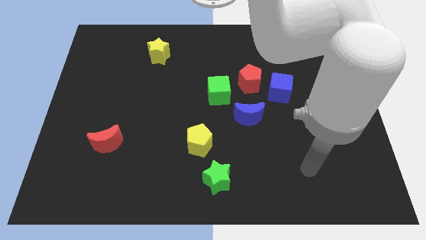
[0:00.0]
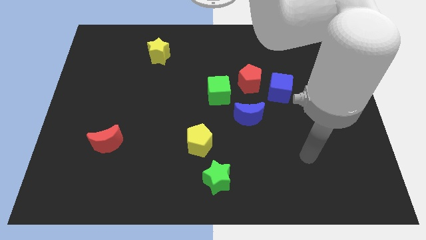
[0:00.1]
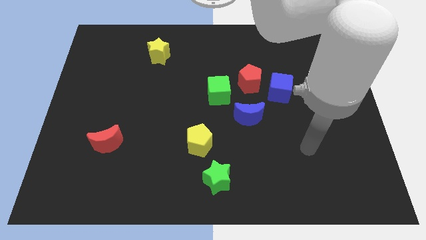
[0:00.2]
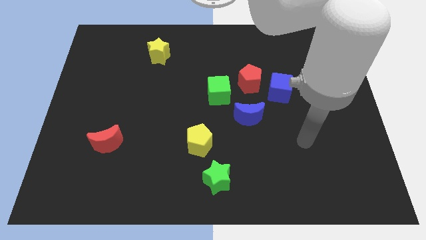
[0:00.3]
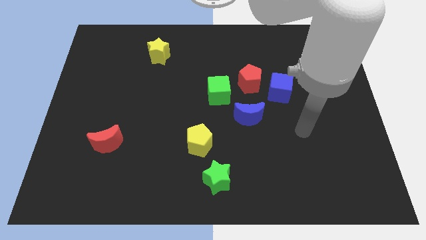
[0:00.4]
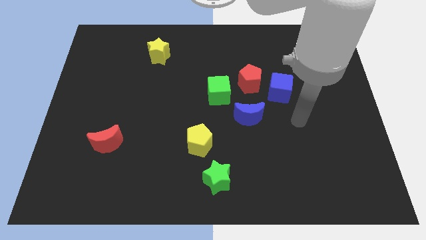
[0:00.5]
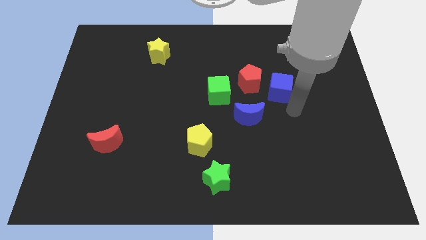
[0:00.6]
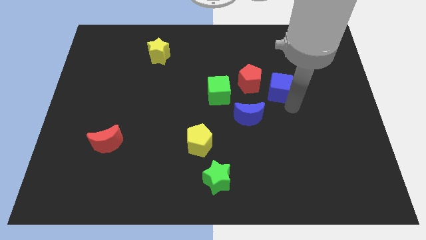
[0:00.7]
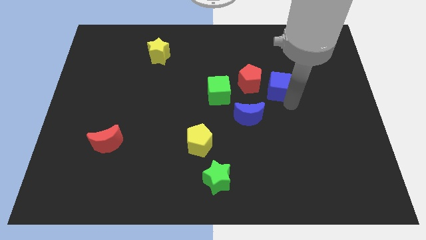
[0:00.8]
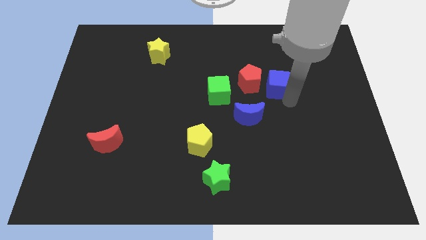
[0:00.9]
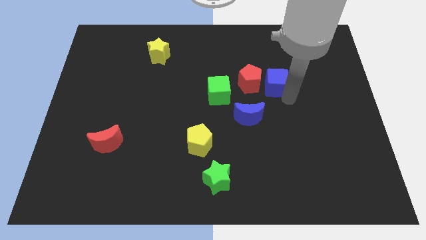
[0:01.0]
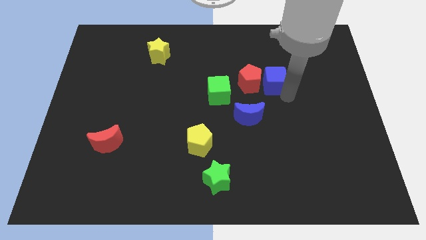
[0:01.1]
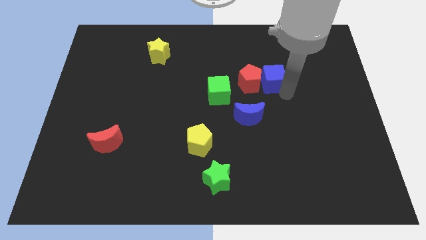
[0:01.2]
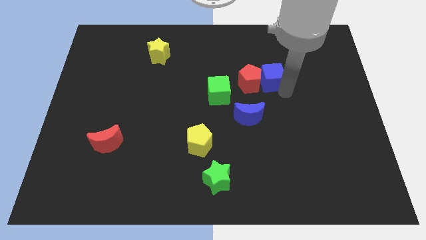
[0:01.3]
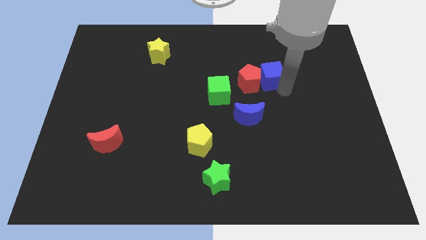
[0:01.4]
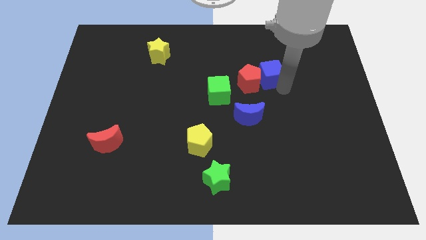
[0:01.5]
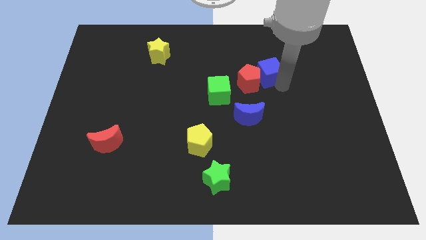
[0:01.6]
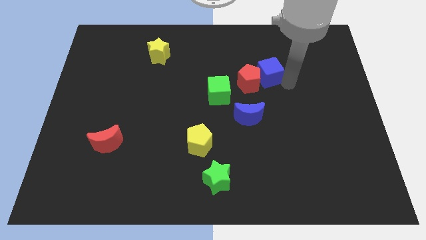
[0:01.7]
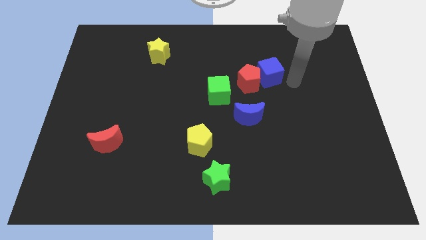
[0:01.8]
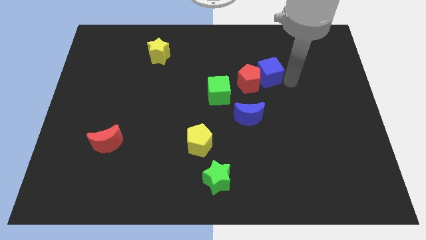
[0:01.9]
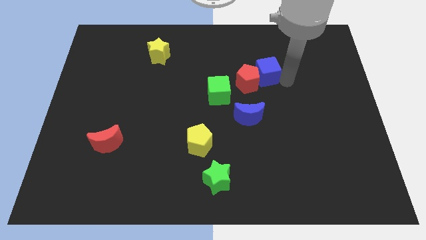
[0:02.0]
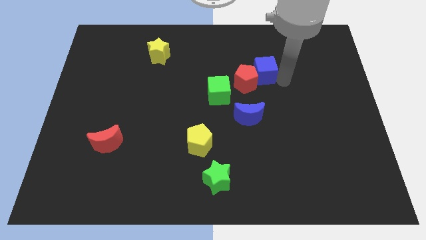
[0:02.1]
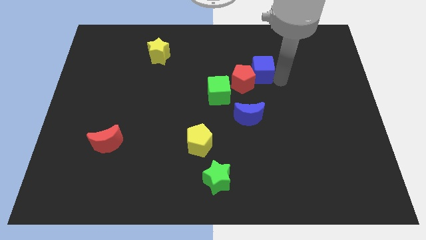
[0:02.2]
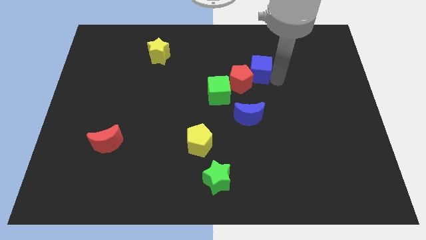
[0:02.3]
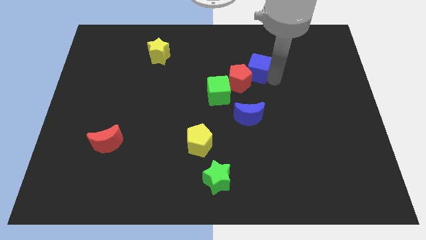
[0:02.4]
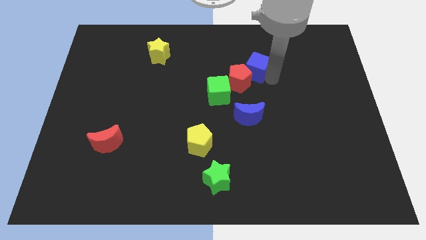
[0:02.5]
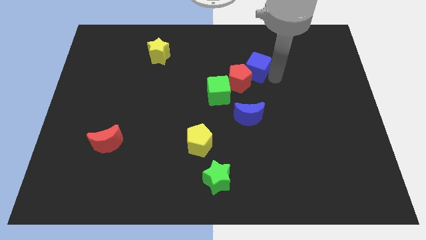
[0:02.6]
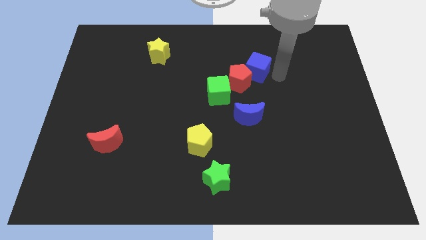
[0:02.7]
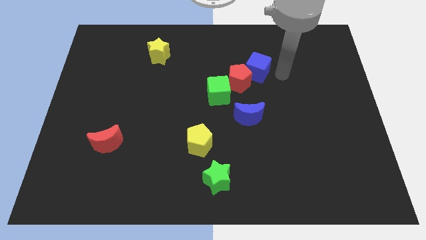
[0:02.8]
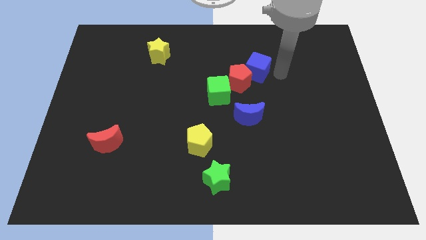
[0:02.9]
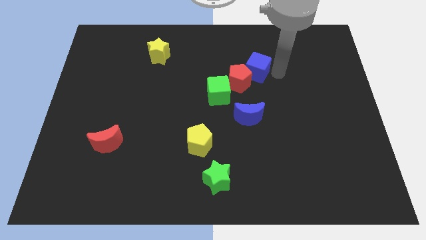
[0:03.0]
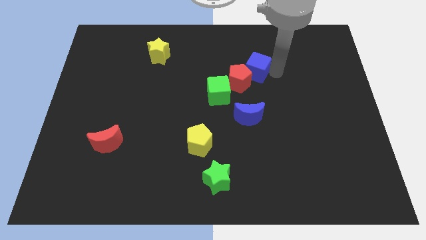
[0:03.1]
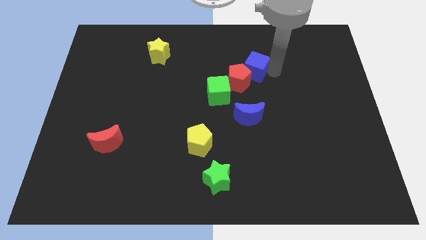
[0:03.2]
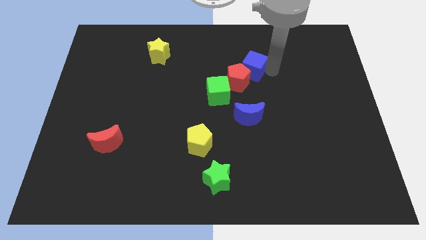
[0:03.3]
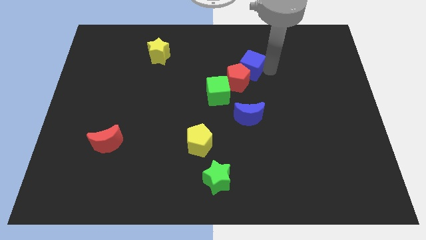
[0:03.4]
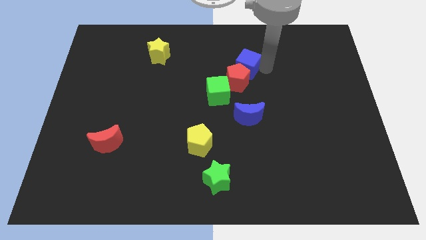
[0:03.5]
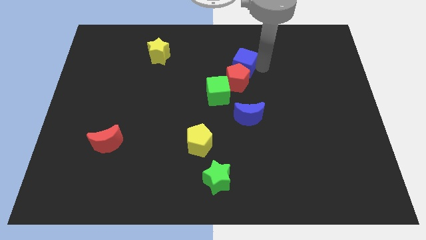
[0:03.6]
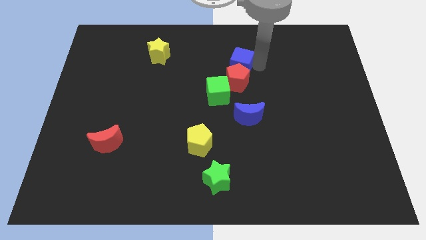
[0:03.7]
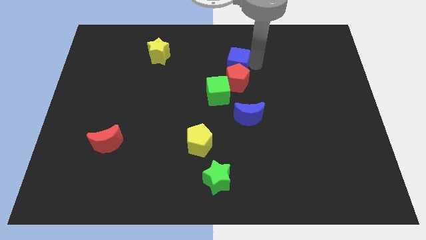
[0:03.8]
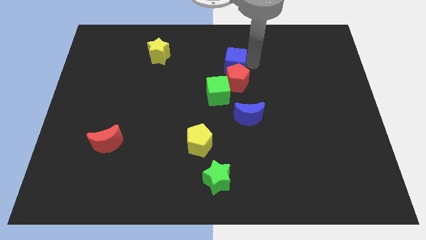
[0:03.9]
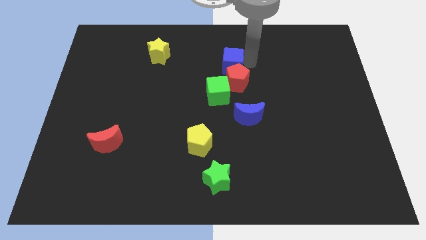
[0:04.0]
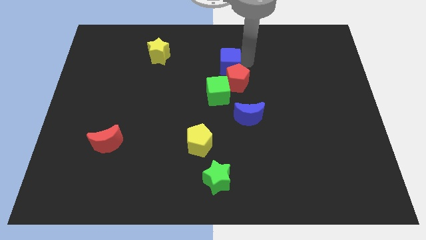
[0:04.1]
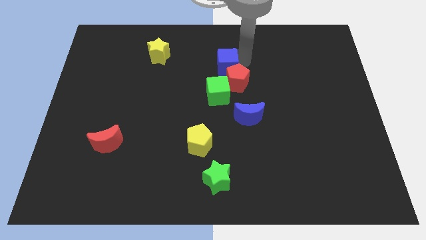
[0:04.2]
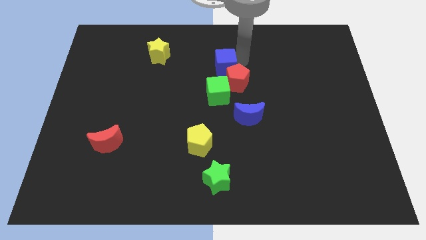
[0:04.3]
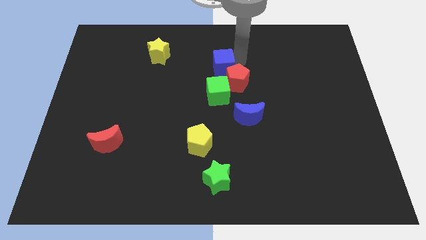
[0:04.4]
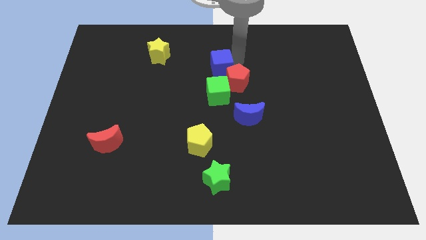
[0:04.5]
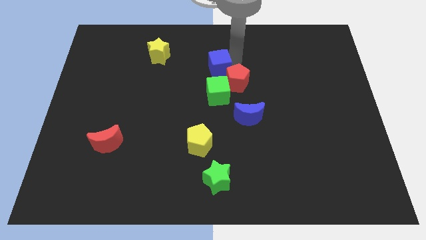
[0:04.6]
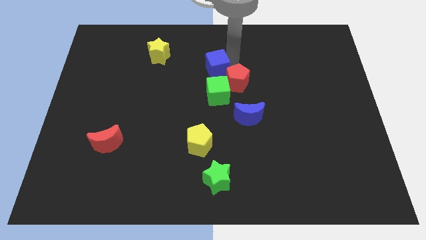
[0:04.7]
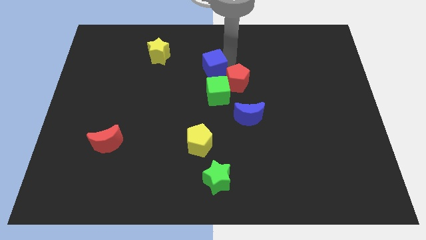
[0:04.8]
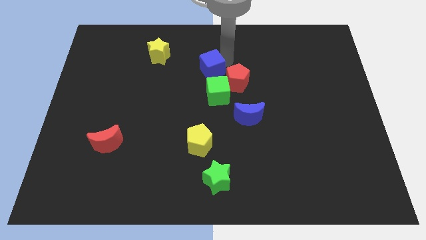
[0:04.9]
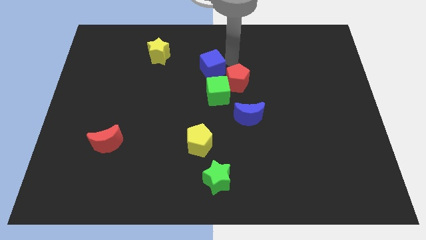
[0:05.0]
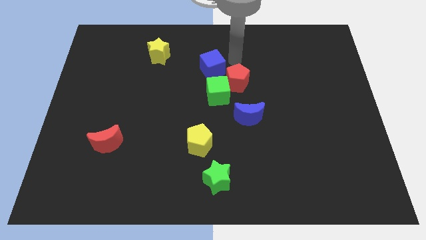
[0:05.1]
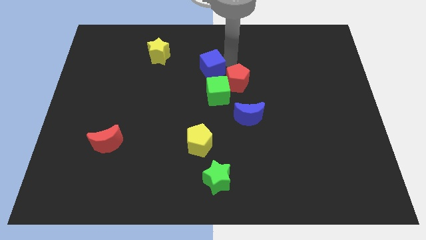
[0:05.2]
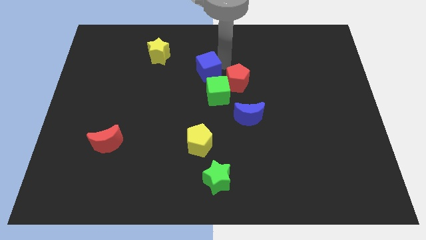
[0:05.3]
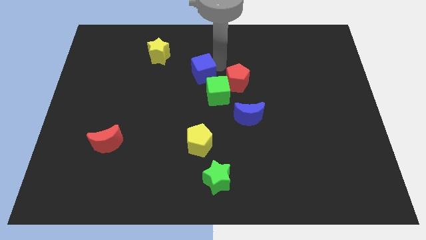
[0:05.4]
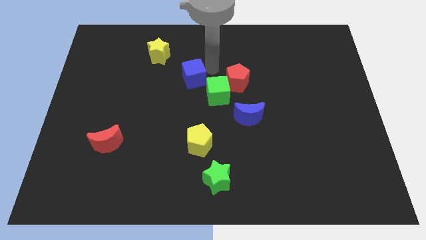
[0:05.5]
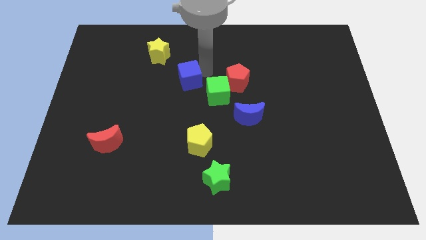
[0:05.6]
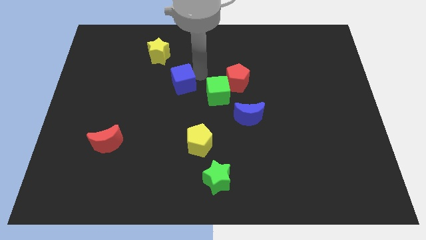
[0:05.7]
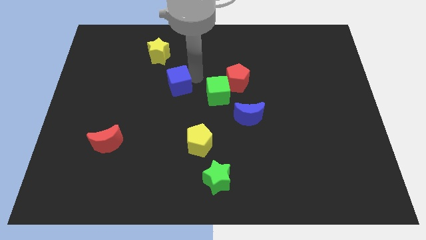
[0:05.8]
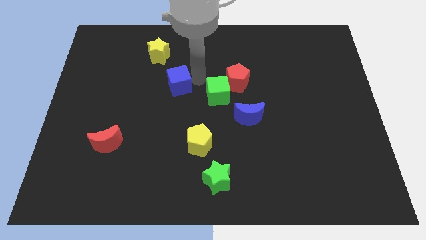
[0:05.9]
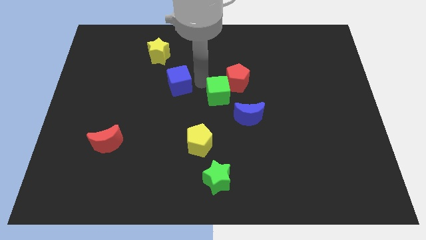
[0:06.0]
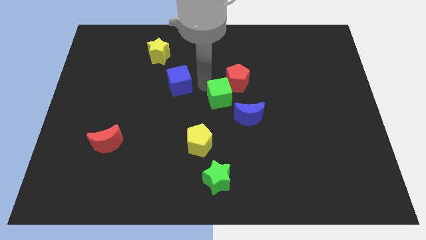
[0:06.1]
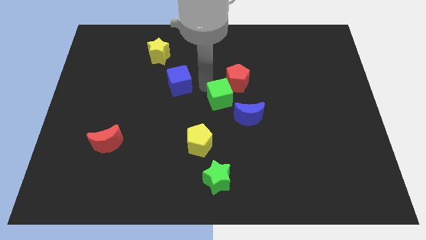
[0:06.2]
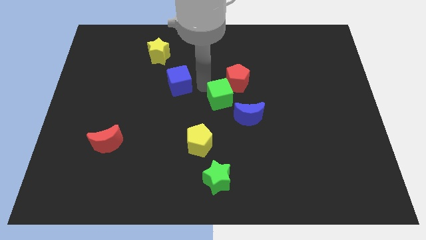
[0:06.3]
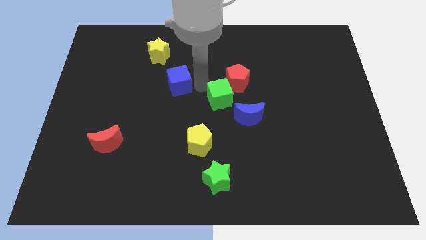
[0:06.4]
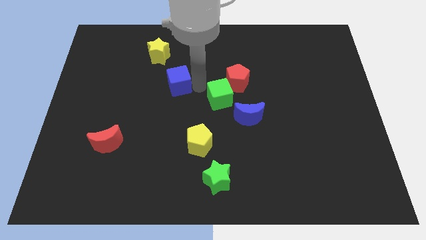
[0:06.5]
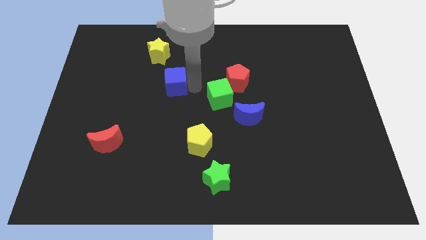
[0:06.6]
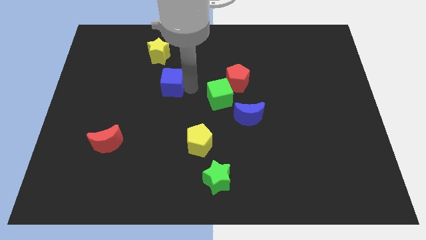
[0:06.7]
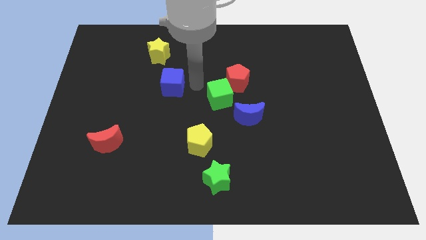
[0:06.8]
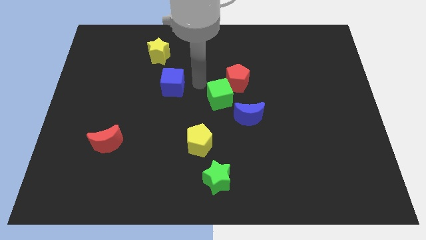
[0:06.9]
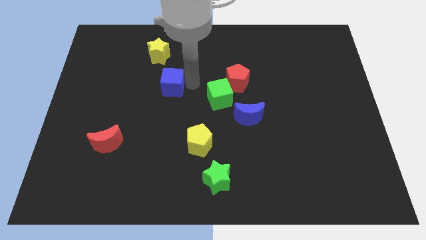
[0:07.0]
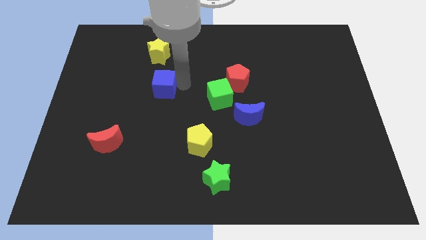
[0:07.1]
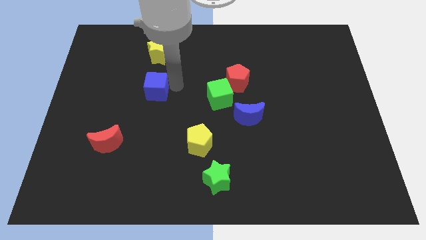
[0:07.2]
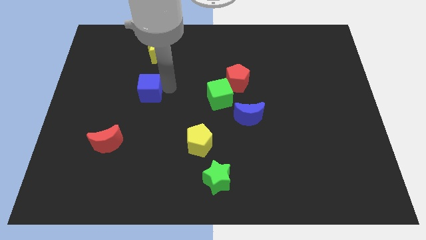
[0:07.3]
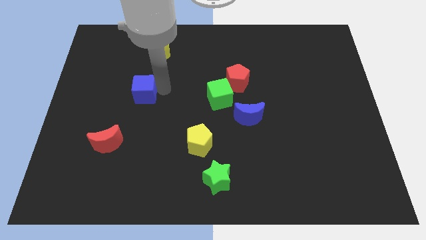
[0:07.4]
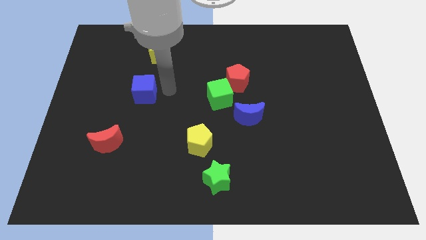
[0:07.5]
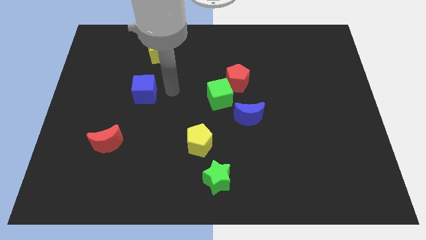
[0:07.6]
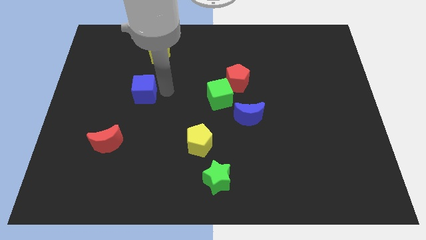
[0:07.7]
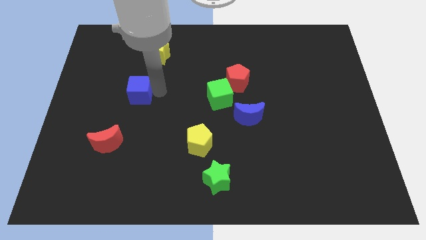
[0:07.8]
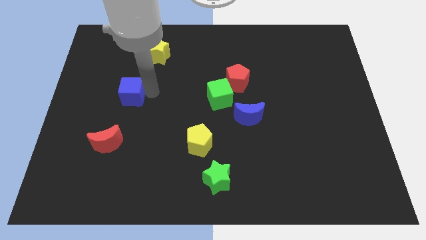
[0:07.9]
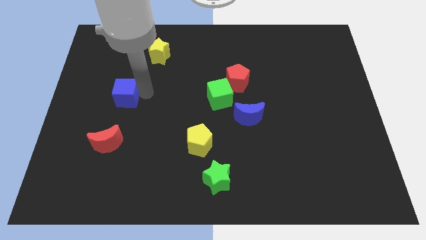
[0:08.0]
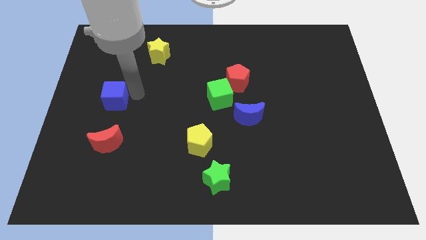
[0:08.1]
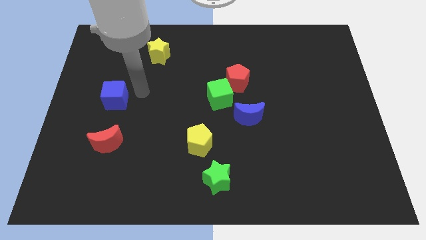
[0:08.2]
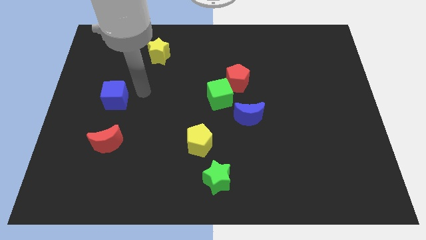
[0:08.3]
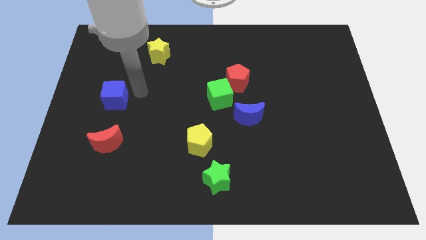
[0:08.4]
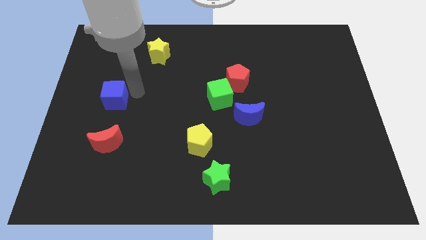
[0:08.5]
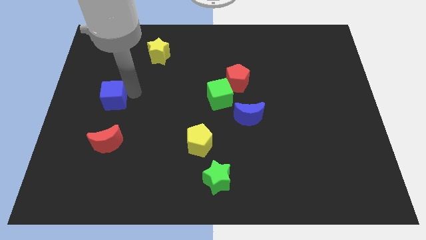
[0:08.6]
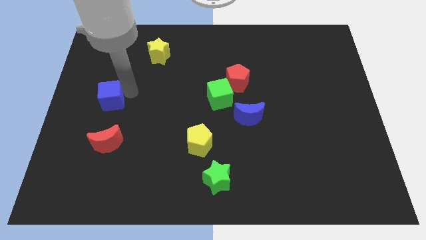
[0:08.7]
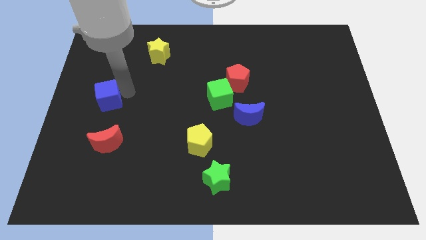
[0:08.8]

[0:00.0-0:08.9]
put the blue cube to the left side of the board
